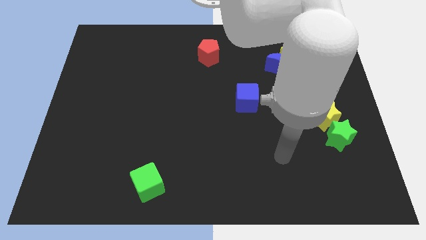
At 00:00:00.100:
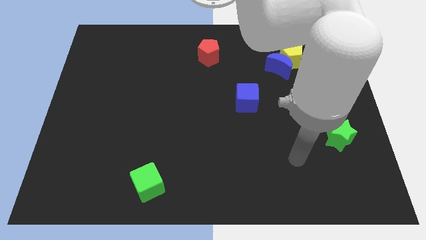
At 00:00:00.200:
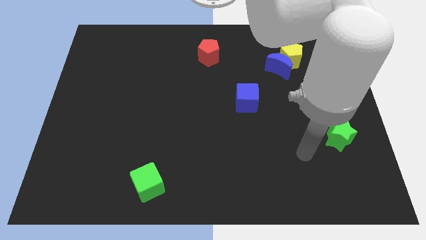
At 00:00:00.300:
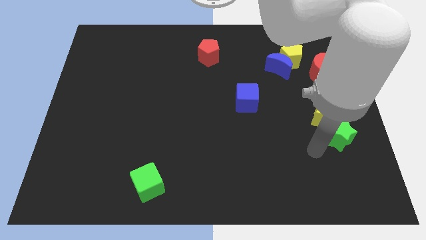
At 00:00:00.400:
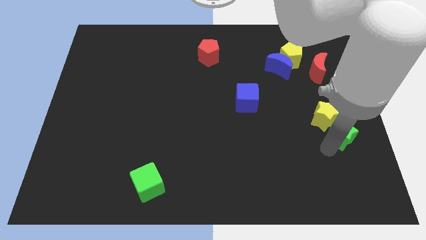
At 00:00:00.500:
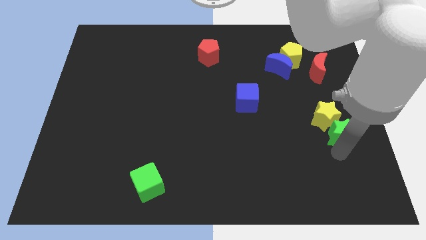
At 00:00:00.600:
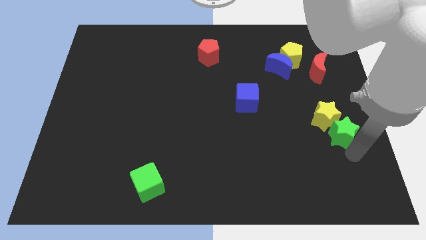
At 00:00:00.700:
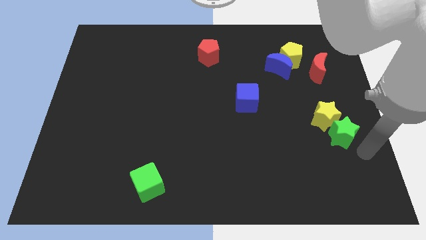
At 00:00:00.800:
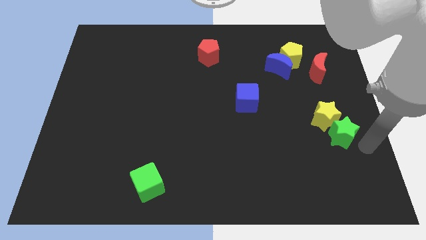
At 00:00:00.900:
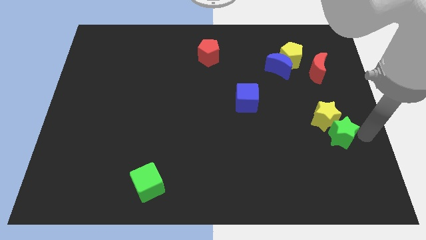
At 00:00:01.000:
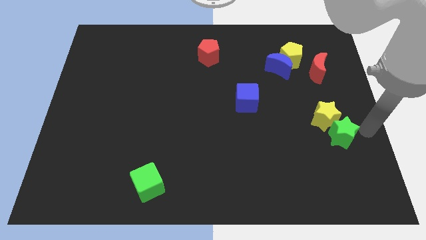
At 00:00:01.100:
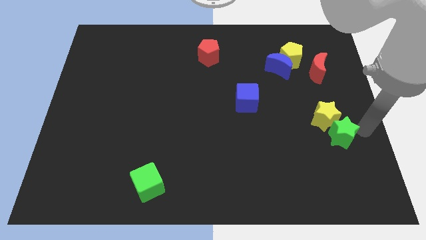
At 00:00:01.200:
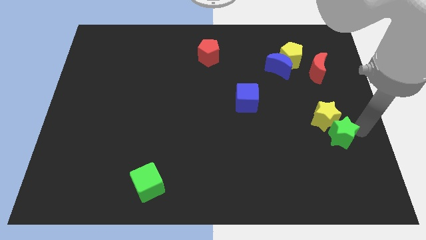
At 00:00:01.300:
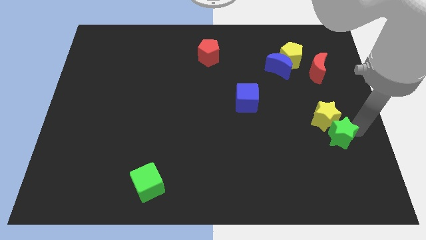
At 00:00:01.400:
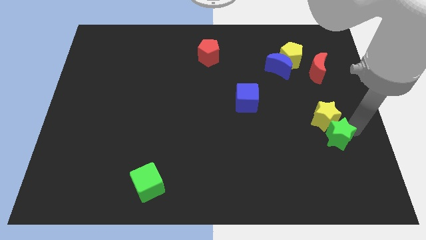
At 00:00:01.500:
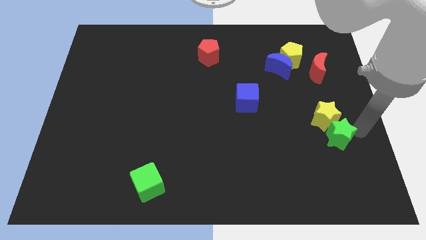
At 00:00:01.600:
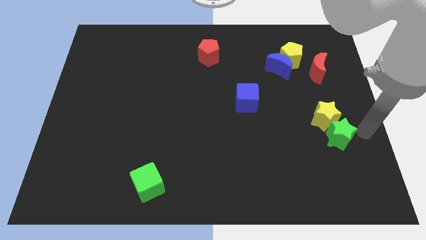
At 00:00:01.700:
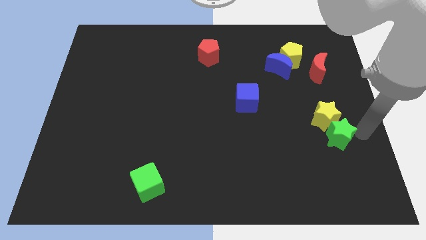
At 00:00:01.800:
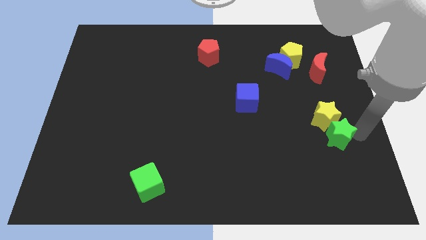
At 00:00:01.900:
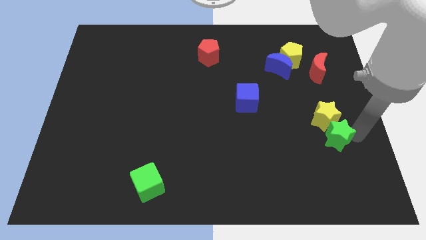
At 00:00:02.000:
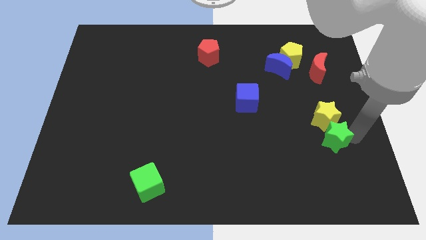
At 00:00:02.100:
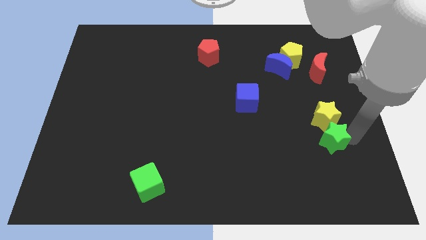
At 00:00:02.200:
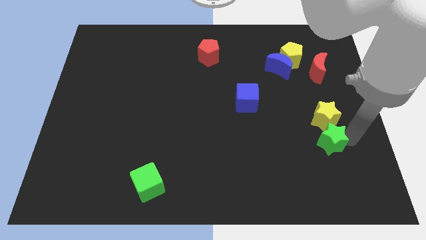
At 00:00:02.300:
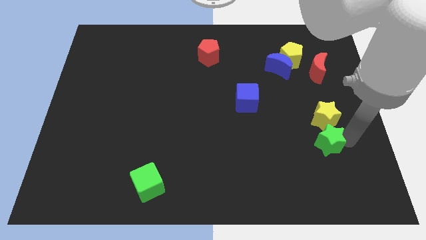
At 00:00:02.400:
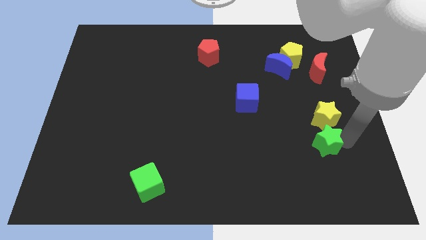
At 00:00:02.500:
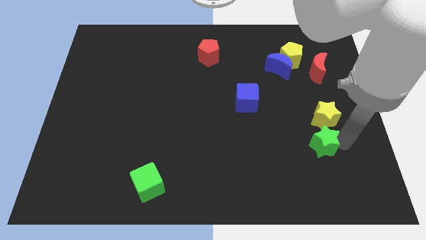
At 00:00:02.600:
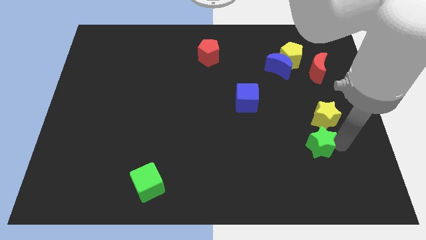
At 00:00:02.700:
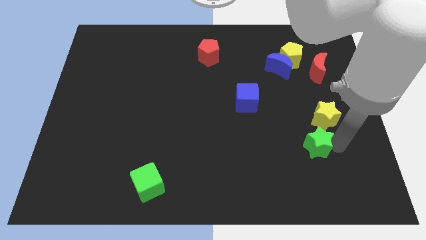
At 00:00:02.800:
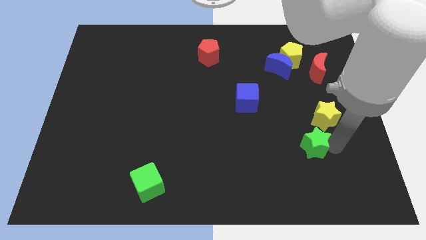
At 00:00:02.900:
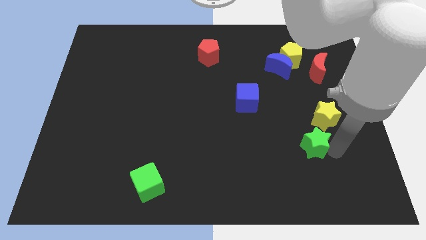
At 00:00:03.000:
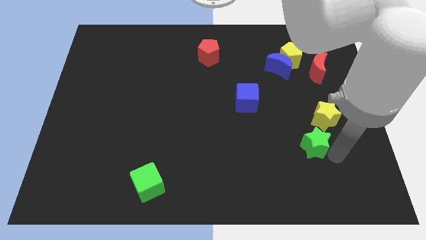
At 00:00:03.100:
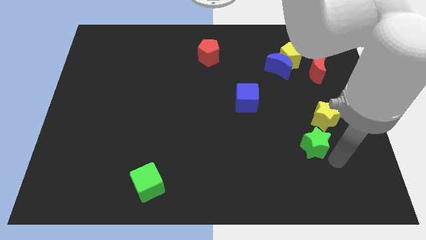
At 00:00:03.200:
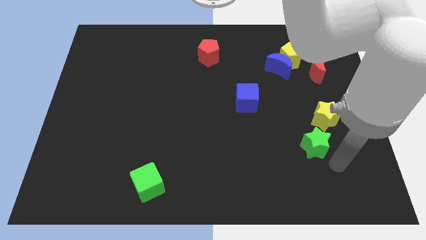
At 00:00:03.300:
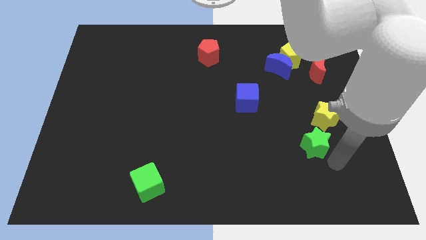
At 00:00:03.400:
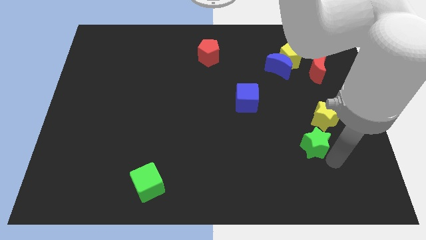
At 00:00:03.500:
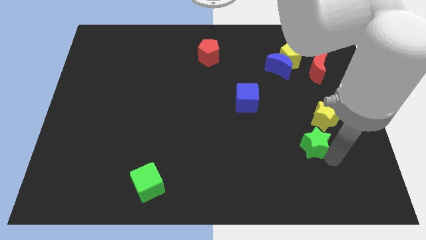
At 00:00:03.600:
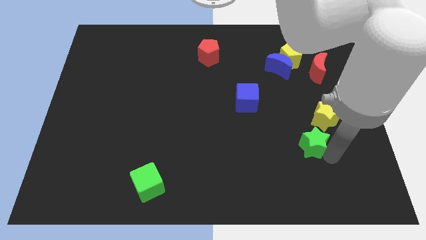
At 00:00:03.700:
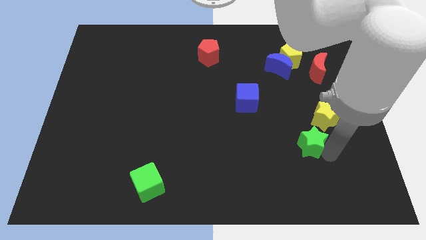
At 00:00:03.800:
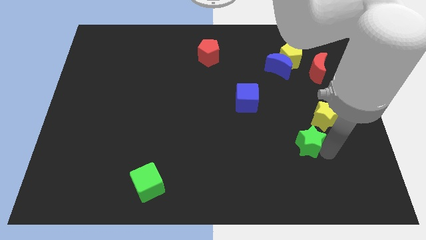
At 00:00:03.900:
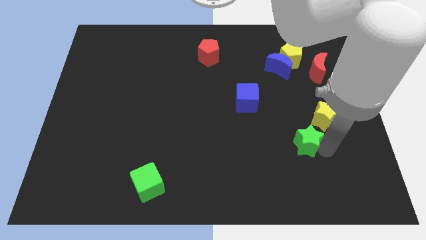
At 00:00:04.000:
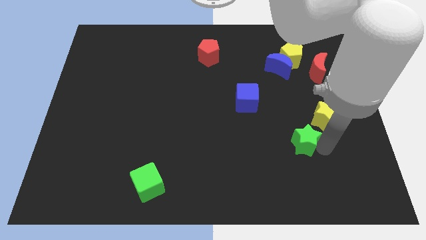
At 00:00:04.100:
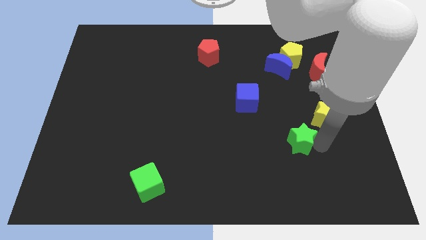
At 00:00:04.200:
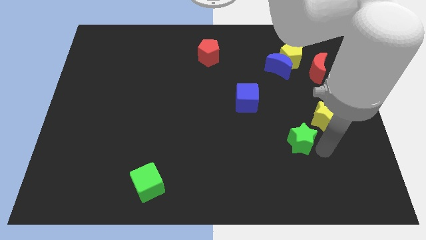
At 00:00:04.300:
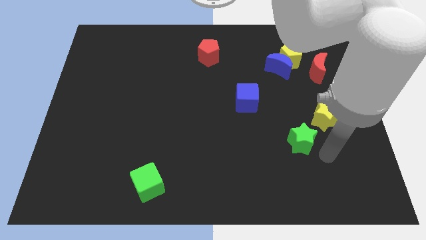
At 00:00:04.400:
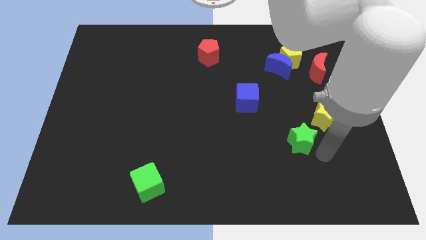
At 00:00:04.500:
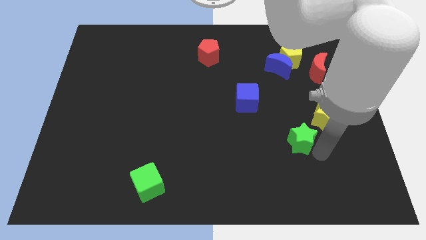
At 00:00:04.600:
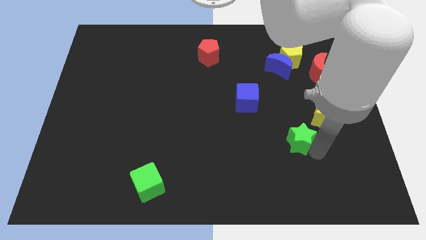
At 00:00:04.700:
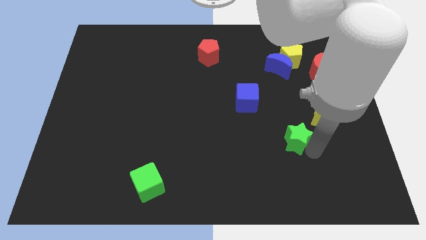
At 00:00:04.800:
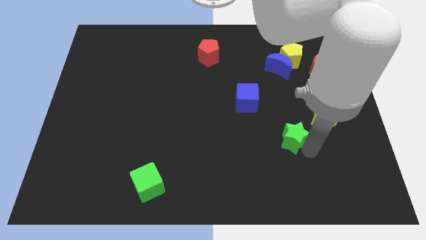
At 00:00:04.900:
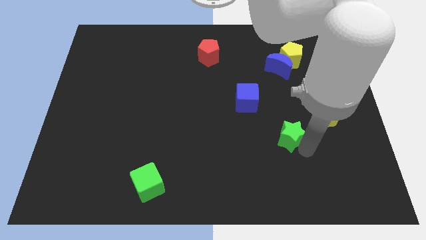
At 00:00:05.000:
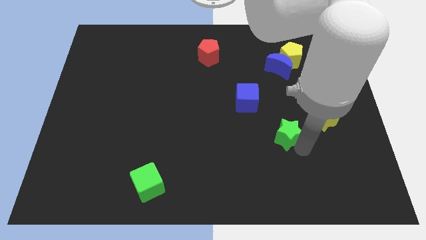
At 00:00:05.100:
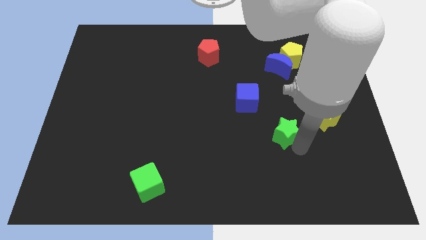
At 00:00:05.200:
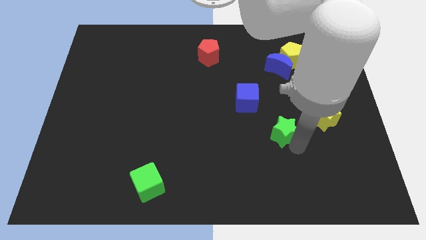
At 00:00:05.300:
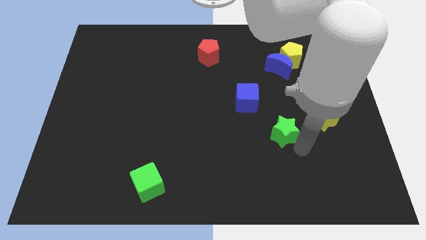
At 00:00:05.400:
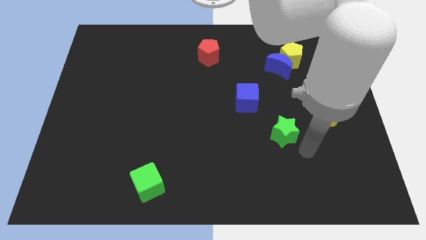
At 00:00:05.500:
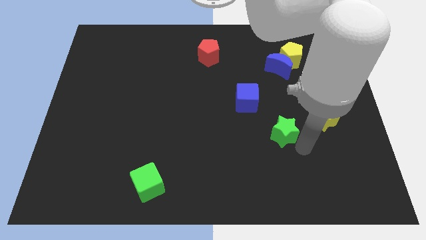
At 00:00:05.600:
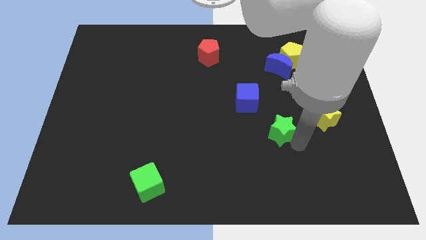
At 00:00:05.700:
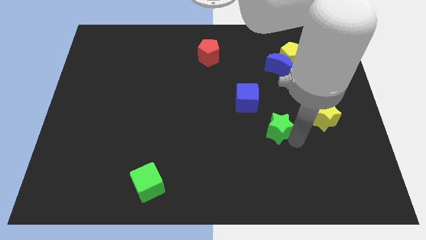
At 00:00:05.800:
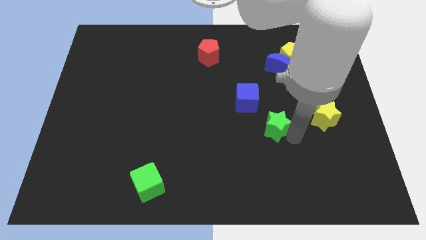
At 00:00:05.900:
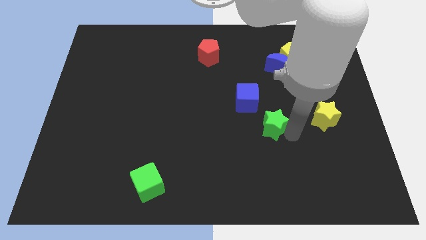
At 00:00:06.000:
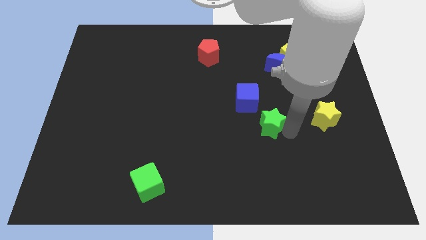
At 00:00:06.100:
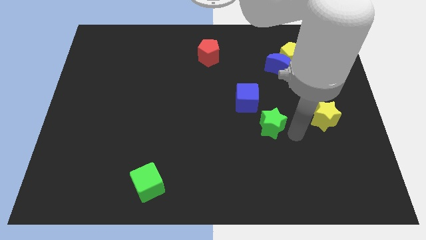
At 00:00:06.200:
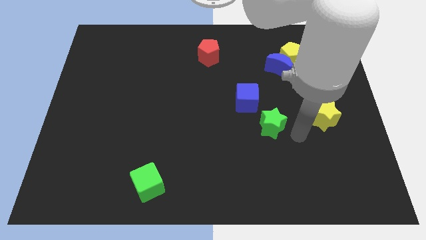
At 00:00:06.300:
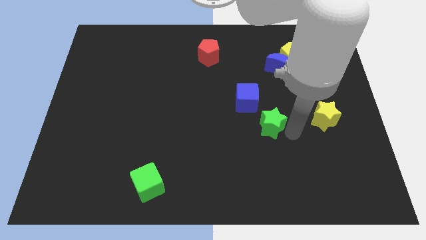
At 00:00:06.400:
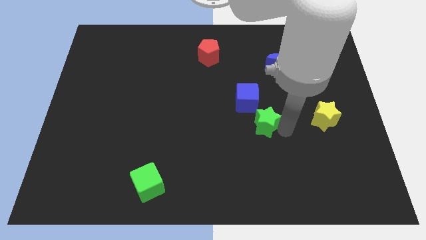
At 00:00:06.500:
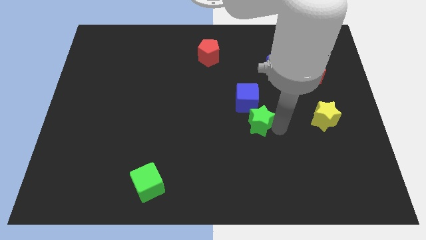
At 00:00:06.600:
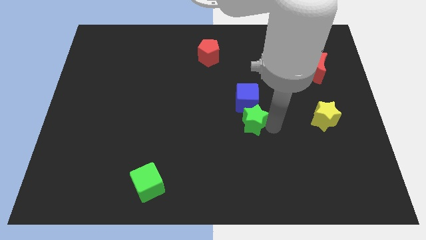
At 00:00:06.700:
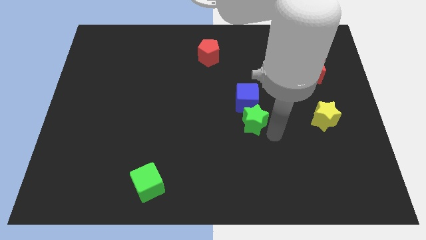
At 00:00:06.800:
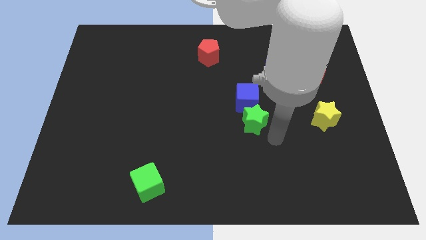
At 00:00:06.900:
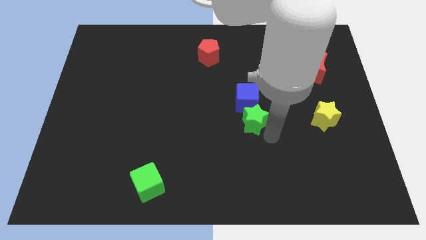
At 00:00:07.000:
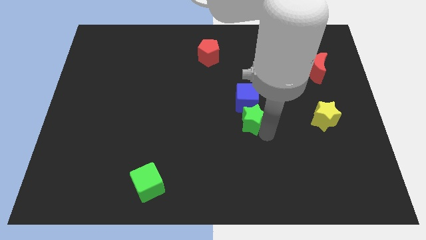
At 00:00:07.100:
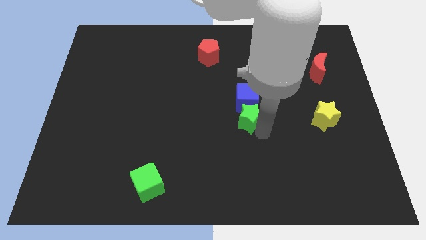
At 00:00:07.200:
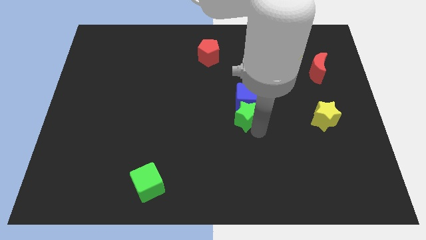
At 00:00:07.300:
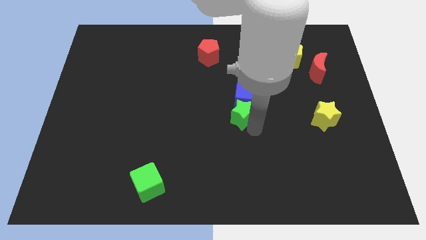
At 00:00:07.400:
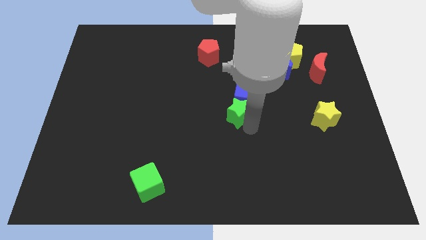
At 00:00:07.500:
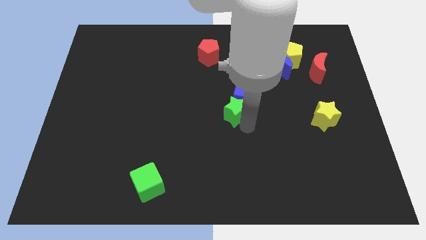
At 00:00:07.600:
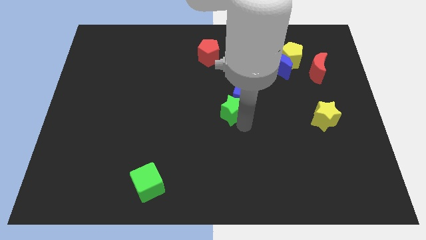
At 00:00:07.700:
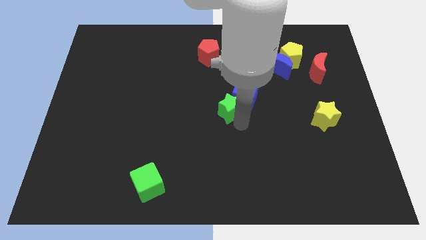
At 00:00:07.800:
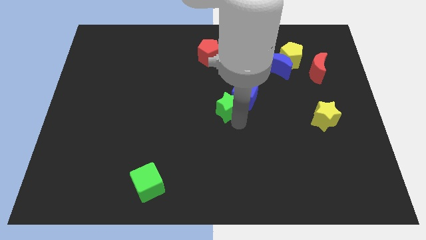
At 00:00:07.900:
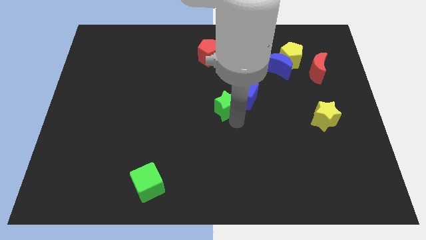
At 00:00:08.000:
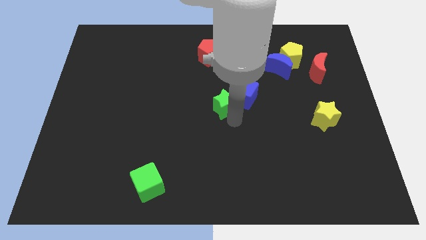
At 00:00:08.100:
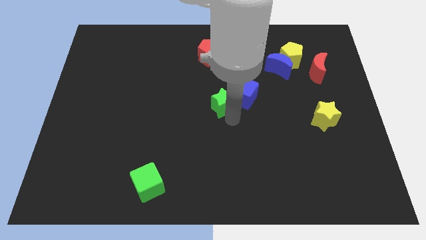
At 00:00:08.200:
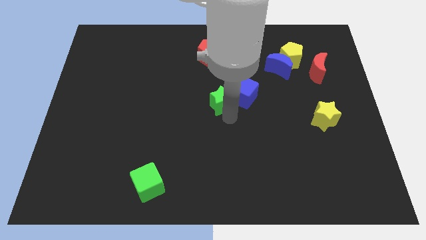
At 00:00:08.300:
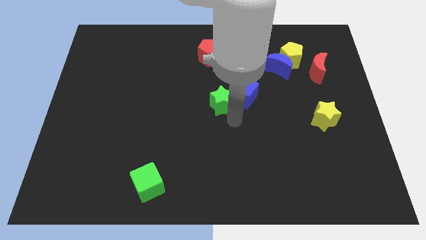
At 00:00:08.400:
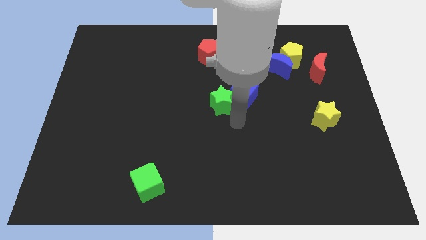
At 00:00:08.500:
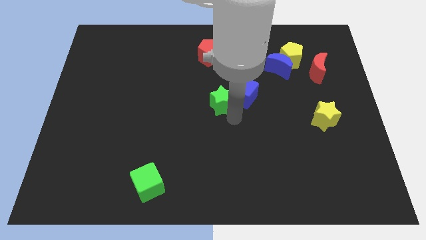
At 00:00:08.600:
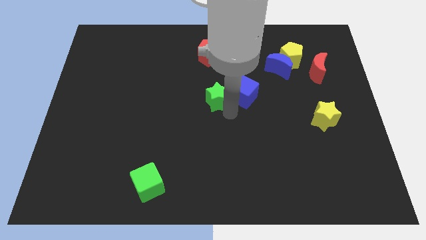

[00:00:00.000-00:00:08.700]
push the green star to the bottom of the red pentagon
